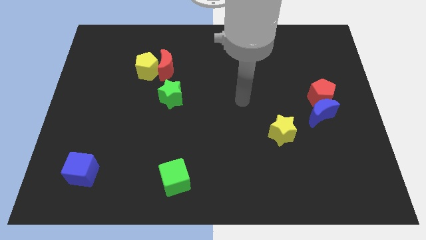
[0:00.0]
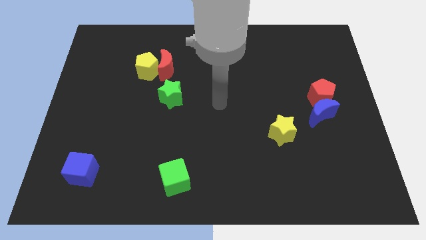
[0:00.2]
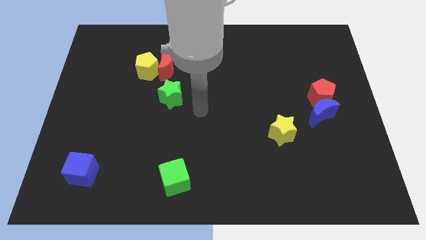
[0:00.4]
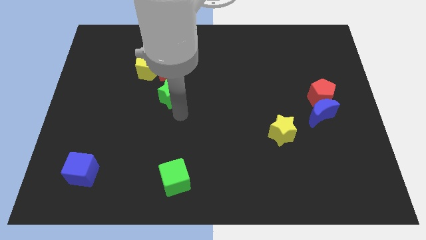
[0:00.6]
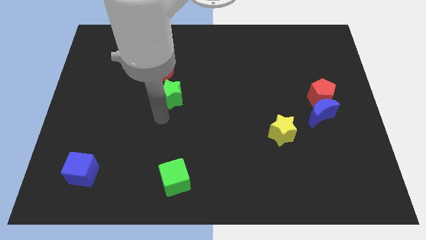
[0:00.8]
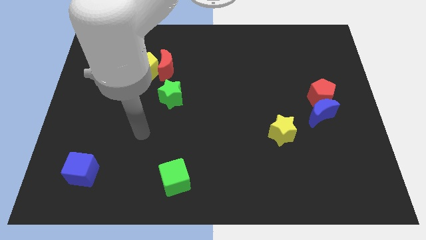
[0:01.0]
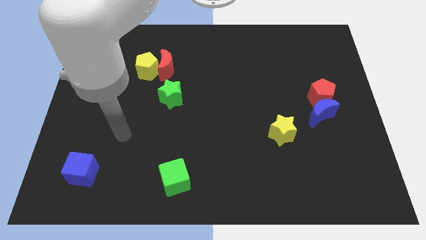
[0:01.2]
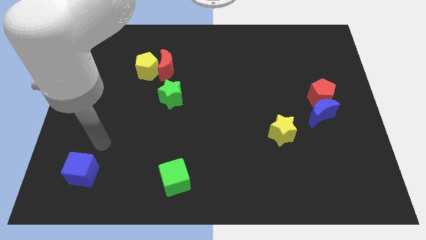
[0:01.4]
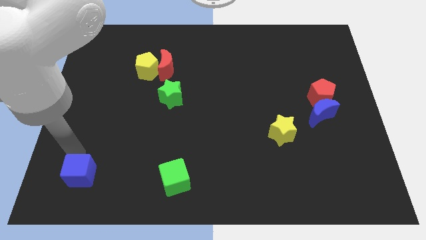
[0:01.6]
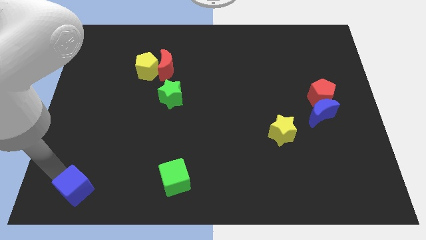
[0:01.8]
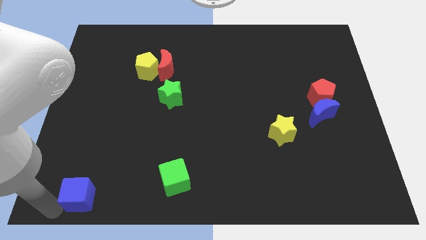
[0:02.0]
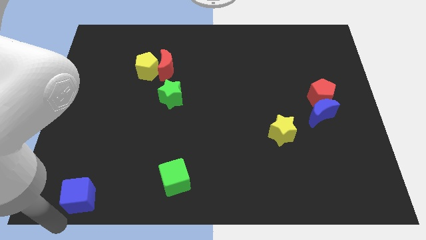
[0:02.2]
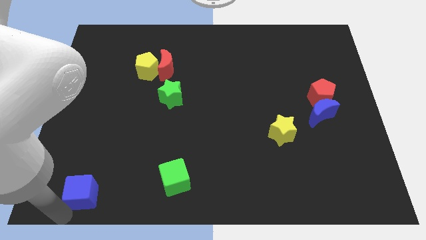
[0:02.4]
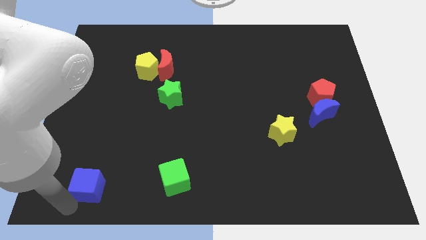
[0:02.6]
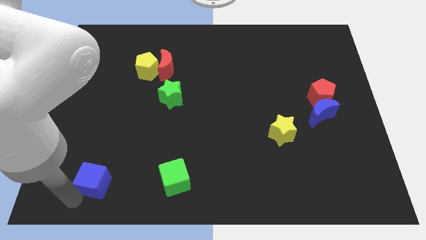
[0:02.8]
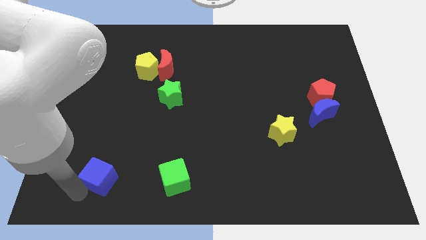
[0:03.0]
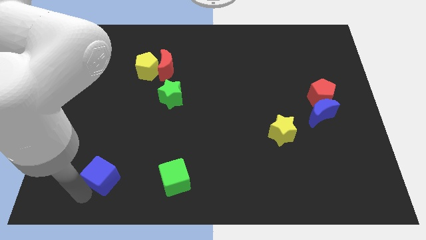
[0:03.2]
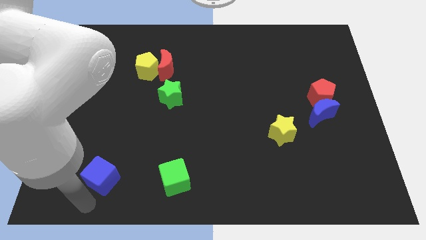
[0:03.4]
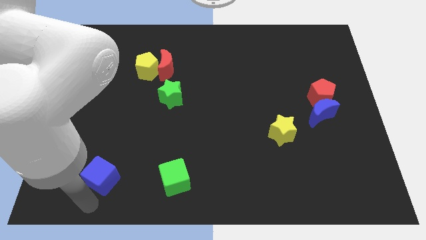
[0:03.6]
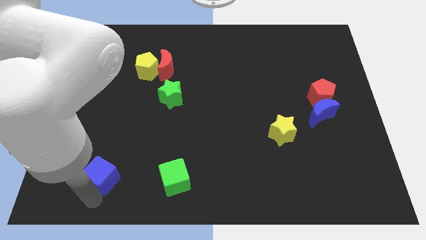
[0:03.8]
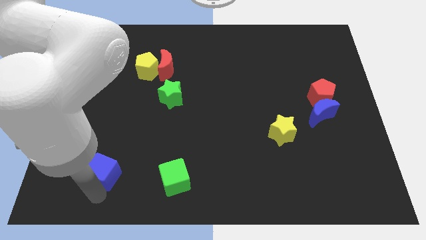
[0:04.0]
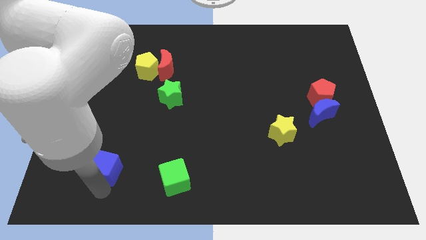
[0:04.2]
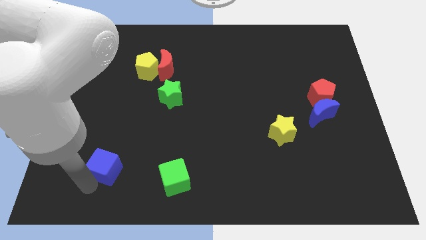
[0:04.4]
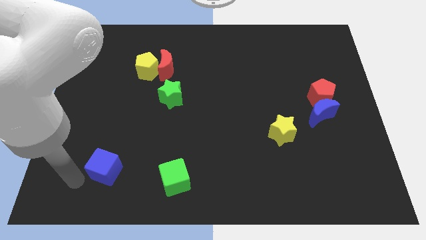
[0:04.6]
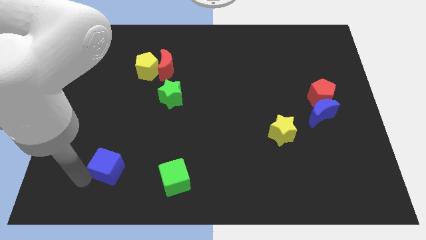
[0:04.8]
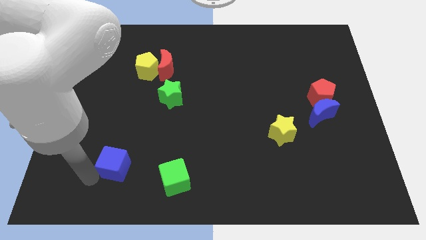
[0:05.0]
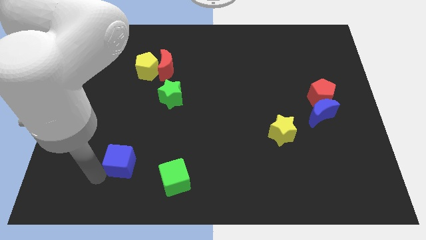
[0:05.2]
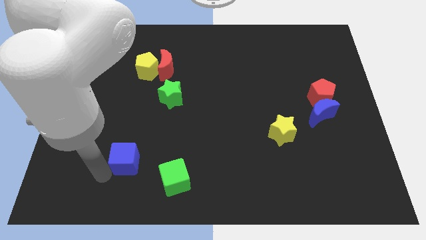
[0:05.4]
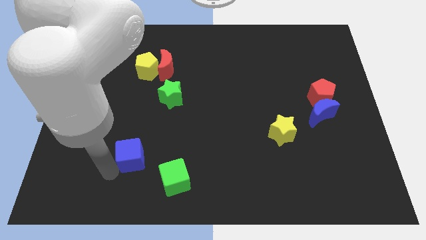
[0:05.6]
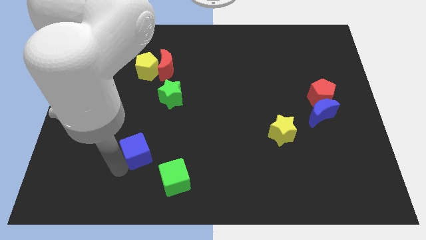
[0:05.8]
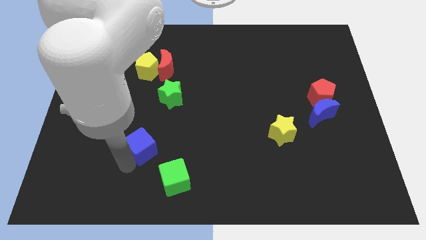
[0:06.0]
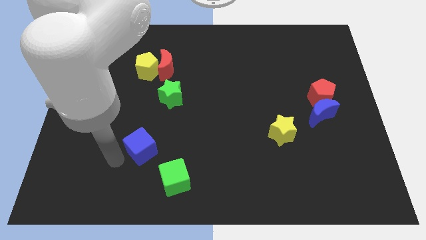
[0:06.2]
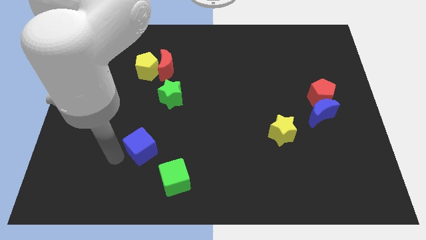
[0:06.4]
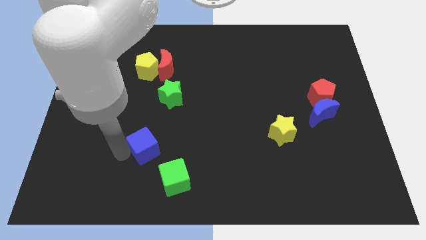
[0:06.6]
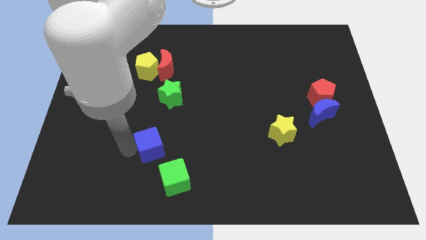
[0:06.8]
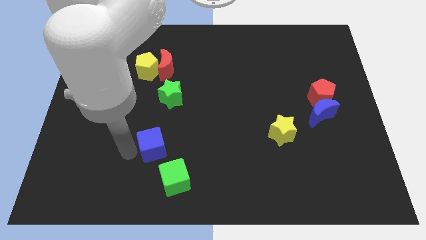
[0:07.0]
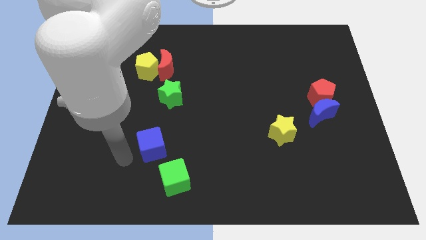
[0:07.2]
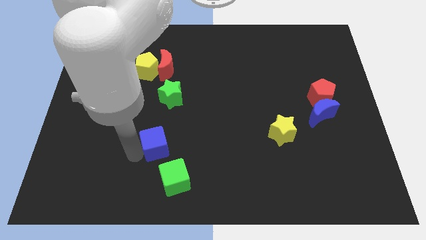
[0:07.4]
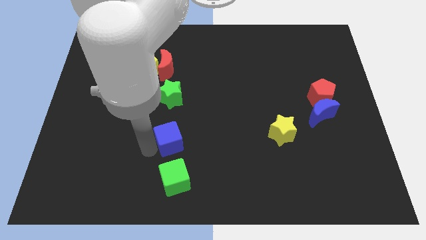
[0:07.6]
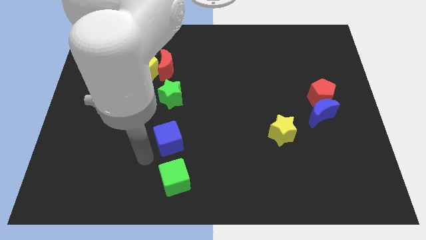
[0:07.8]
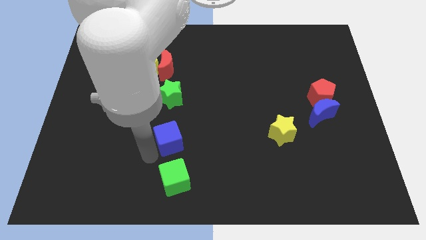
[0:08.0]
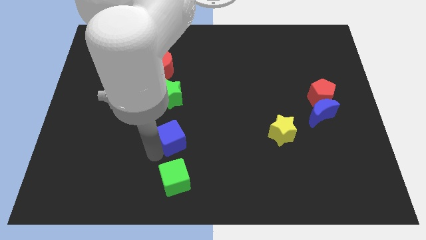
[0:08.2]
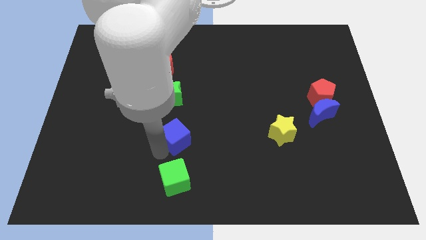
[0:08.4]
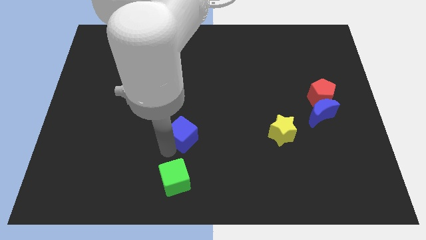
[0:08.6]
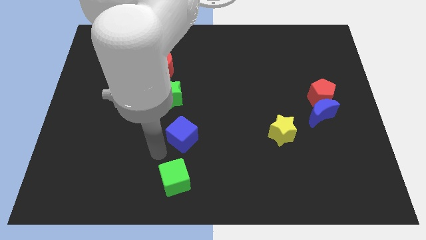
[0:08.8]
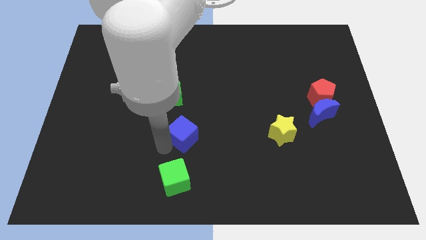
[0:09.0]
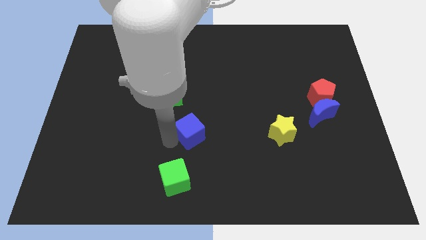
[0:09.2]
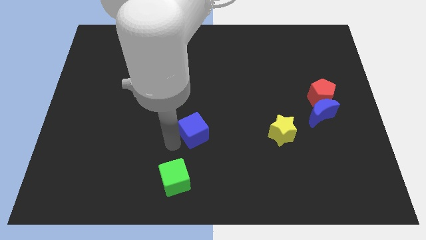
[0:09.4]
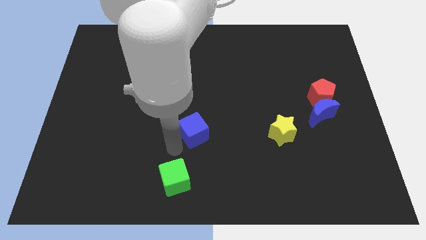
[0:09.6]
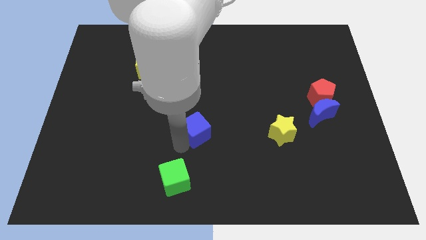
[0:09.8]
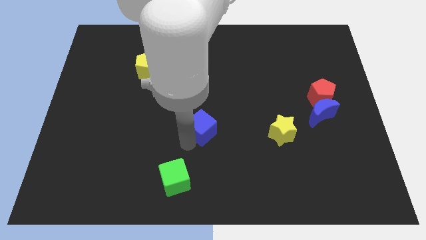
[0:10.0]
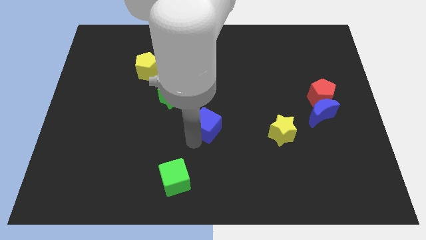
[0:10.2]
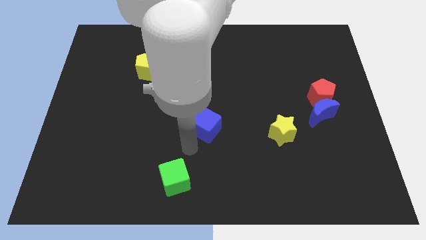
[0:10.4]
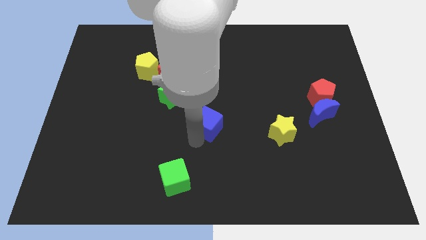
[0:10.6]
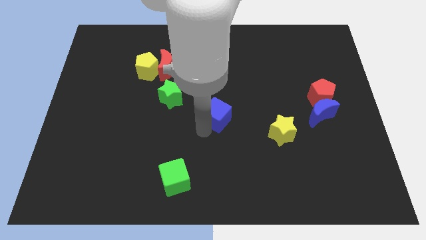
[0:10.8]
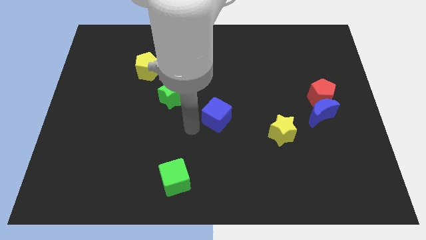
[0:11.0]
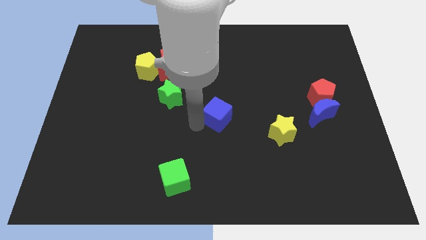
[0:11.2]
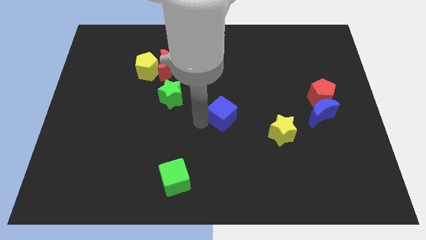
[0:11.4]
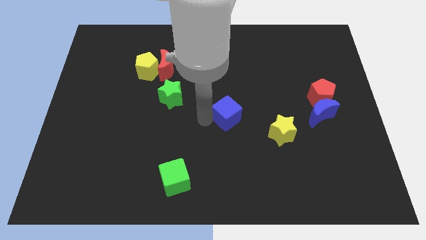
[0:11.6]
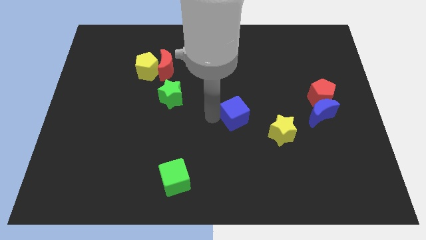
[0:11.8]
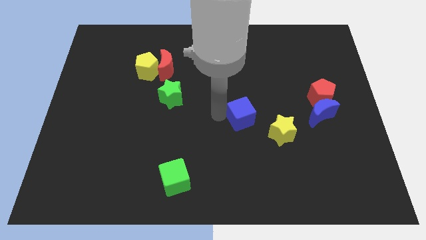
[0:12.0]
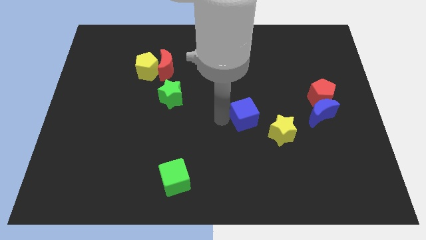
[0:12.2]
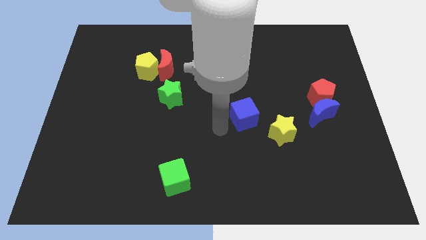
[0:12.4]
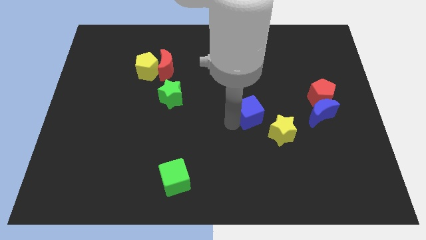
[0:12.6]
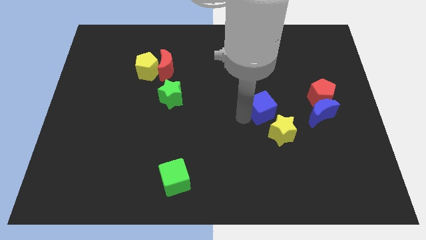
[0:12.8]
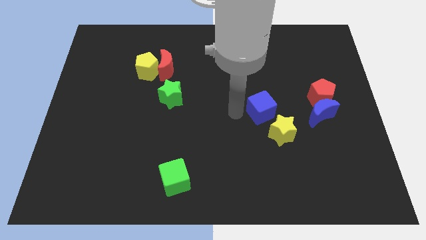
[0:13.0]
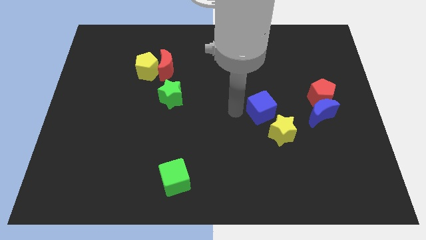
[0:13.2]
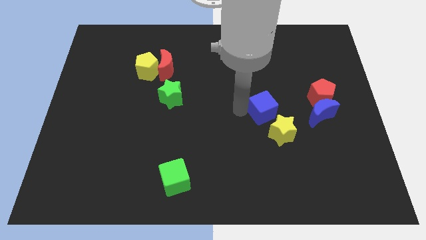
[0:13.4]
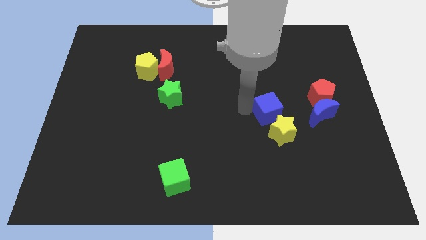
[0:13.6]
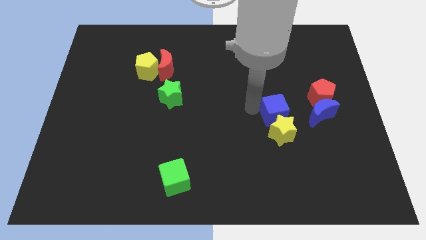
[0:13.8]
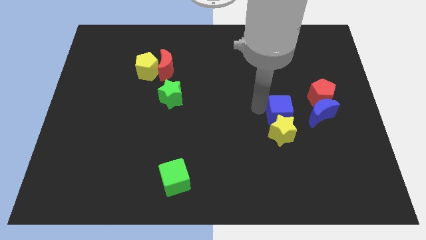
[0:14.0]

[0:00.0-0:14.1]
put the blue cube diagonally down and to the left of the red pentagon
